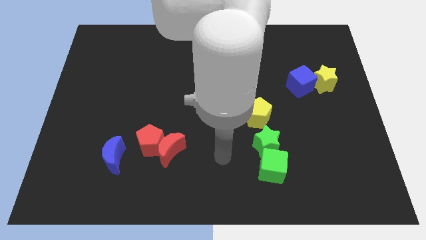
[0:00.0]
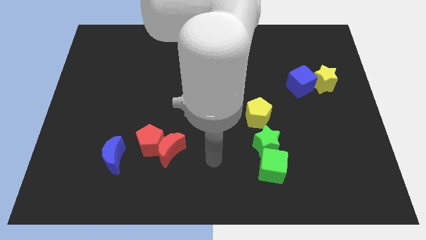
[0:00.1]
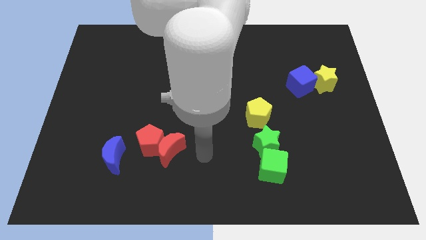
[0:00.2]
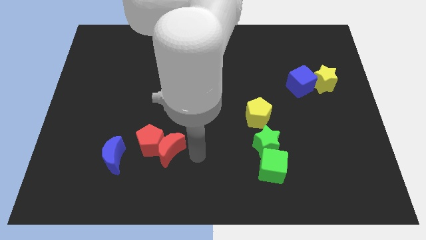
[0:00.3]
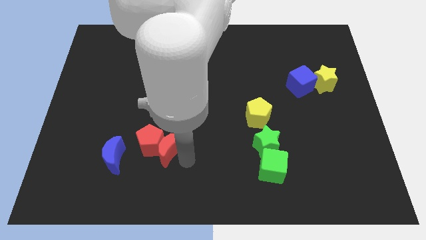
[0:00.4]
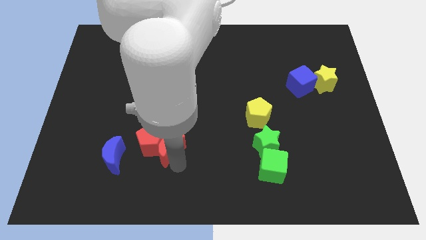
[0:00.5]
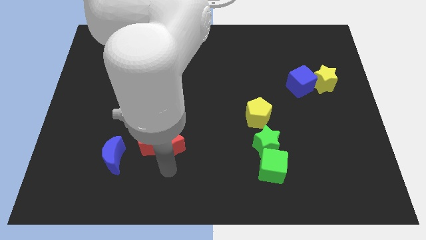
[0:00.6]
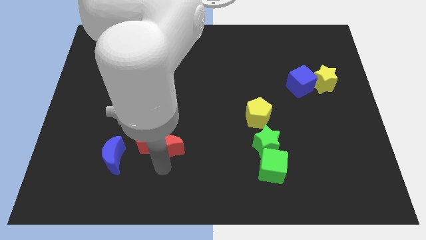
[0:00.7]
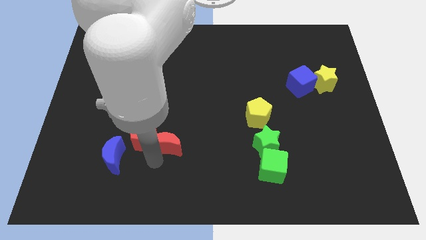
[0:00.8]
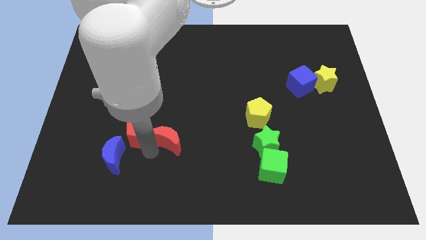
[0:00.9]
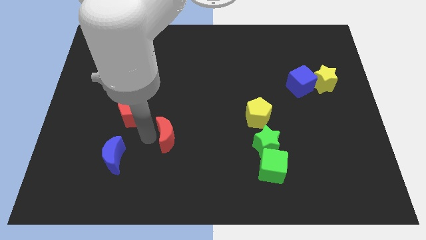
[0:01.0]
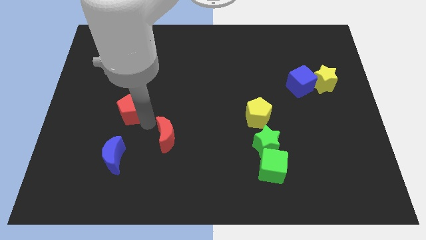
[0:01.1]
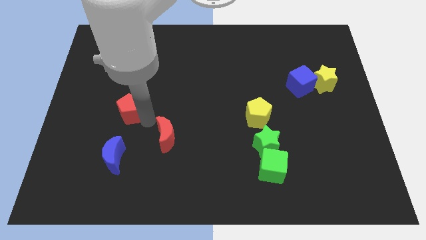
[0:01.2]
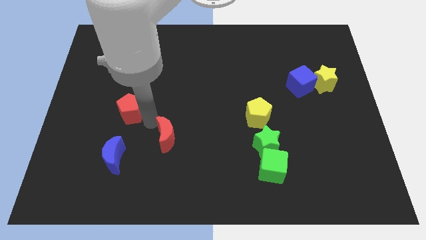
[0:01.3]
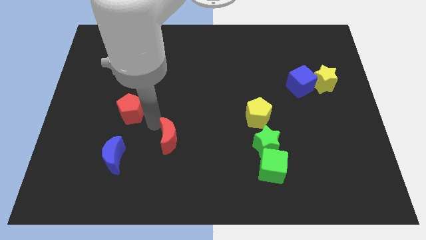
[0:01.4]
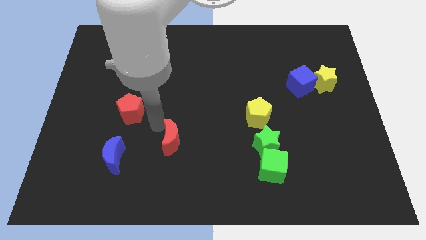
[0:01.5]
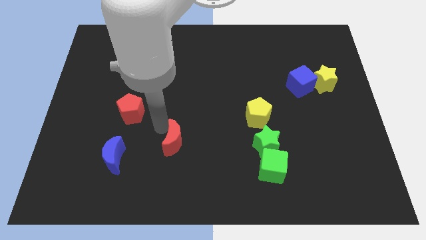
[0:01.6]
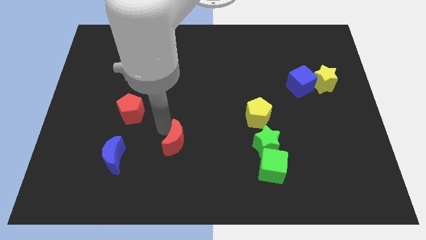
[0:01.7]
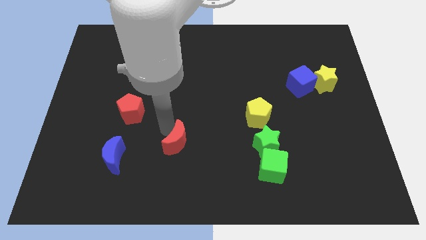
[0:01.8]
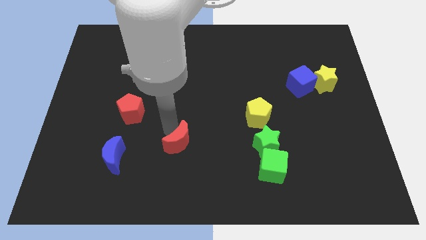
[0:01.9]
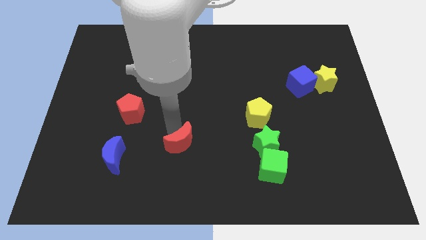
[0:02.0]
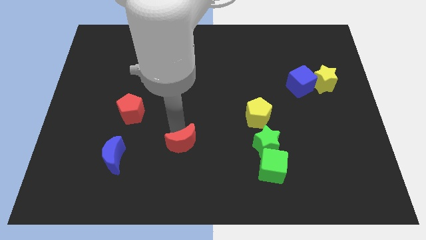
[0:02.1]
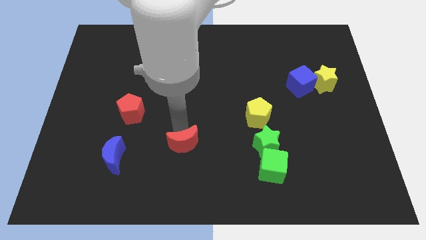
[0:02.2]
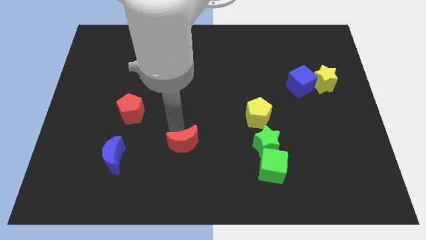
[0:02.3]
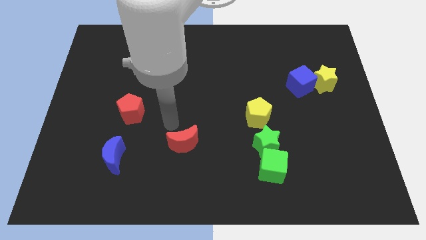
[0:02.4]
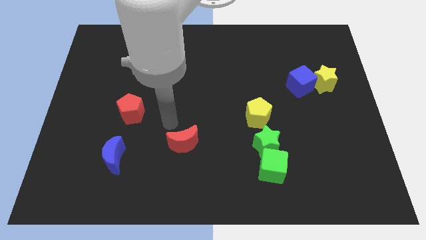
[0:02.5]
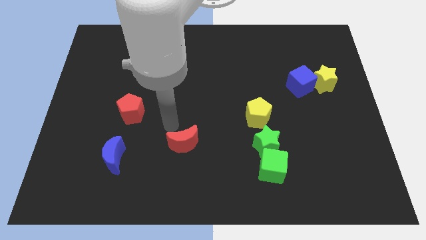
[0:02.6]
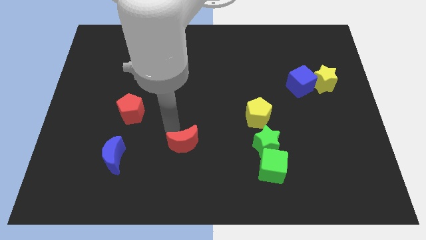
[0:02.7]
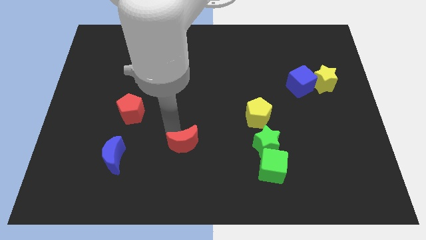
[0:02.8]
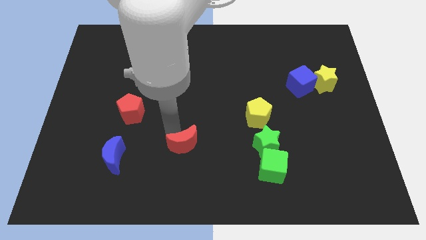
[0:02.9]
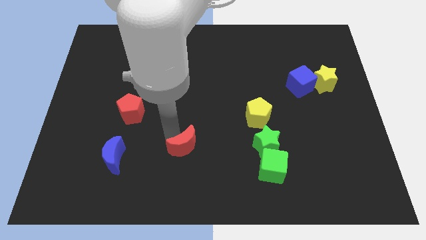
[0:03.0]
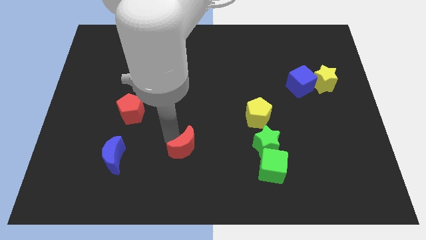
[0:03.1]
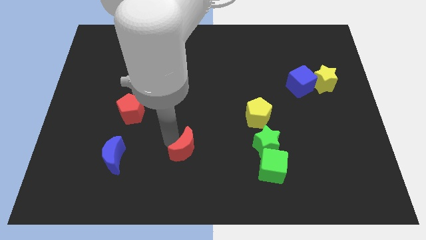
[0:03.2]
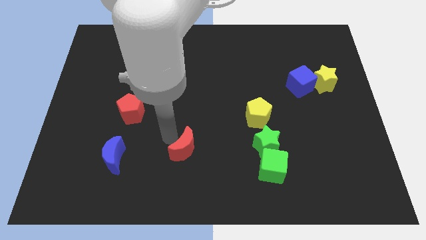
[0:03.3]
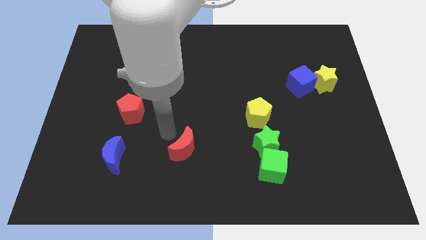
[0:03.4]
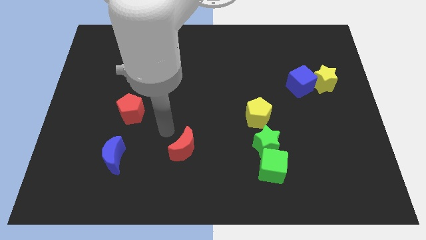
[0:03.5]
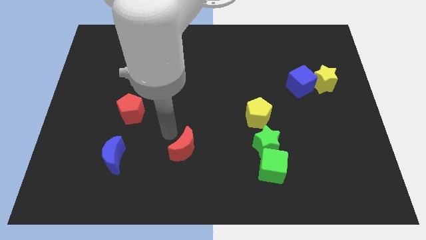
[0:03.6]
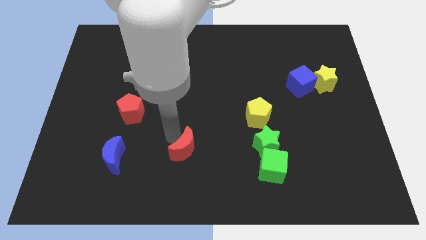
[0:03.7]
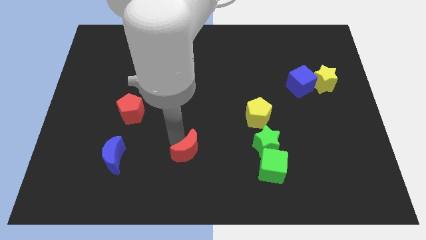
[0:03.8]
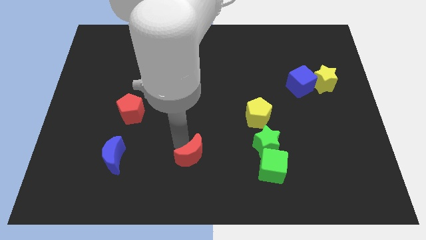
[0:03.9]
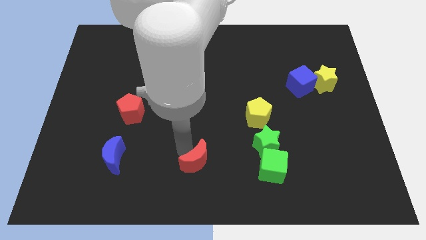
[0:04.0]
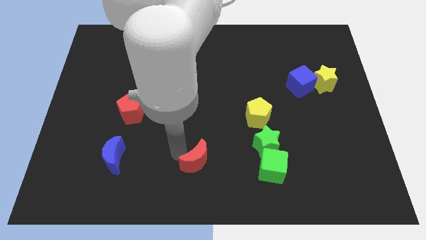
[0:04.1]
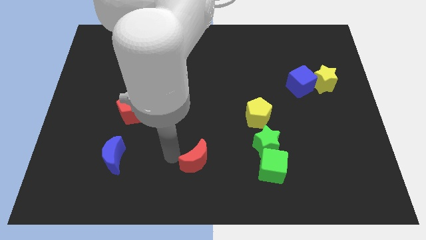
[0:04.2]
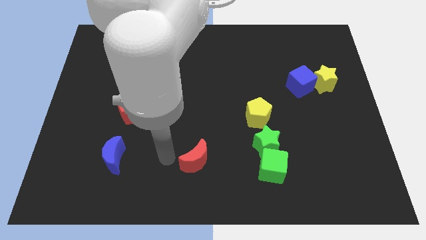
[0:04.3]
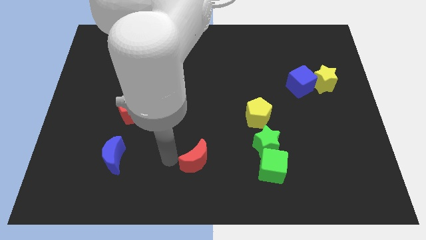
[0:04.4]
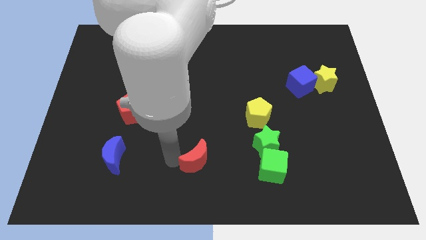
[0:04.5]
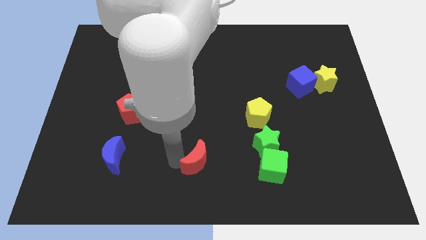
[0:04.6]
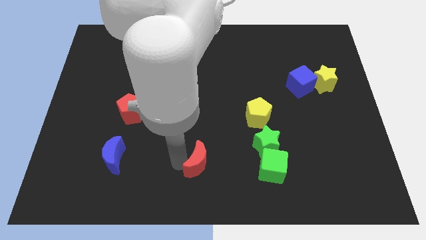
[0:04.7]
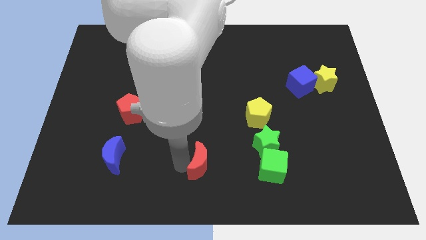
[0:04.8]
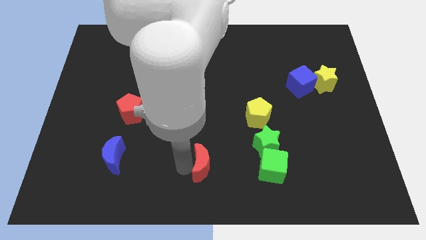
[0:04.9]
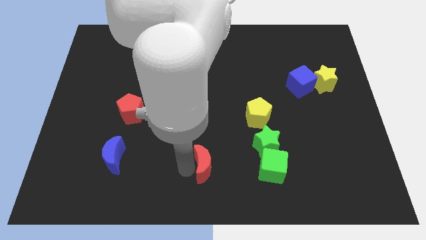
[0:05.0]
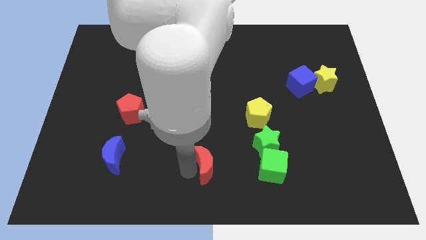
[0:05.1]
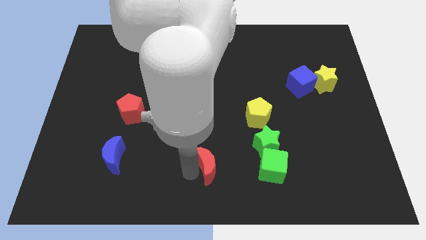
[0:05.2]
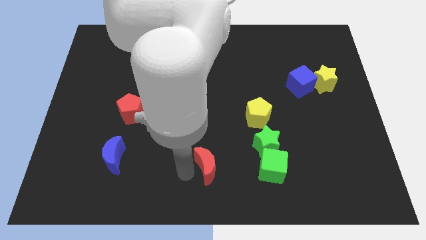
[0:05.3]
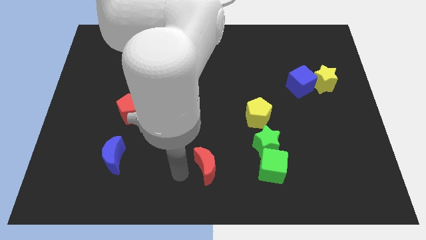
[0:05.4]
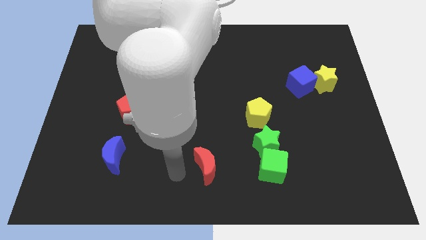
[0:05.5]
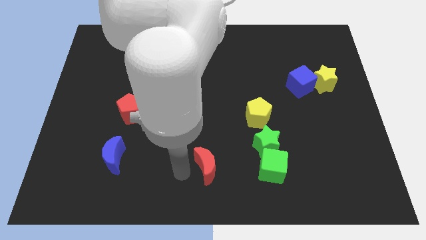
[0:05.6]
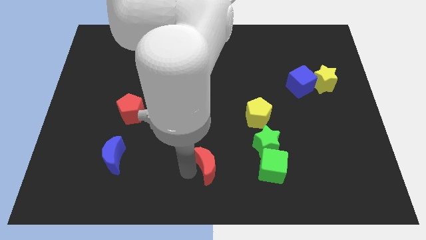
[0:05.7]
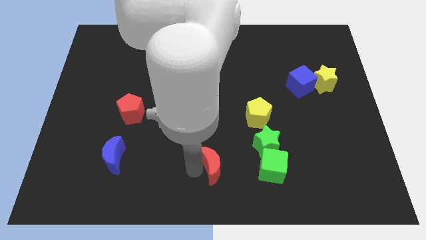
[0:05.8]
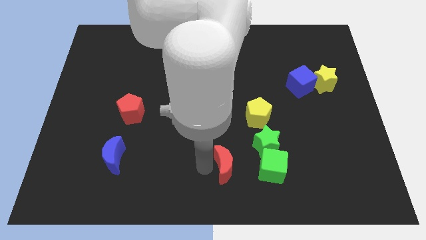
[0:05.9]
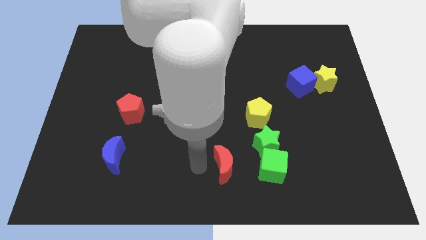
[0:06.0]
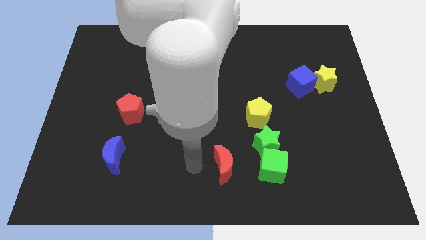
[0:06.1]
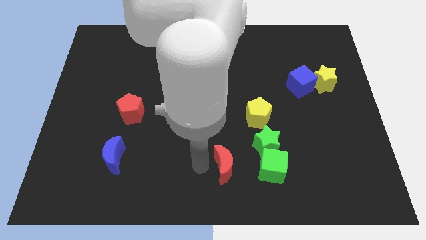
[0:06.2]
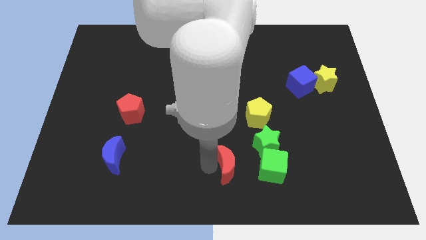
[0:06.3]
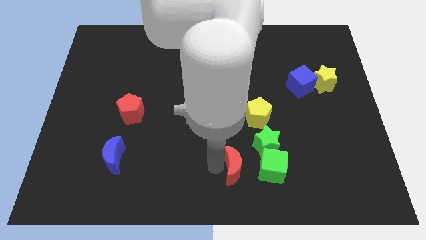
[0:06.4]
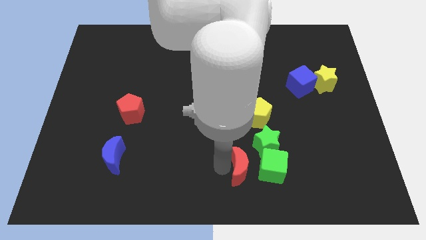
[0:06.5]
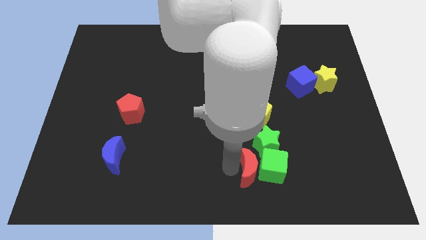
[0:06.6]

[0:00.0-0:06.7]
move the red moon to the green cube
